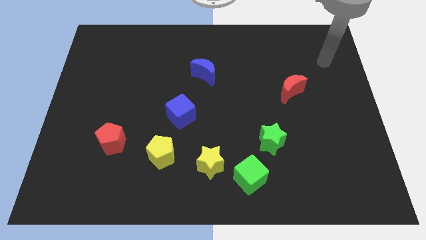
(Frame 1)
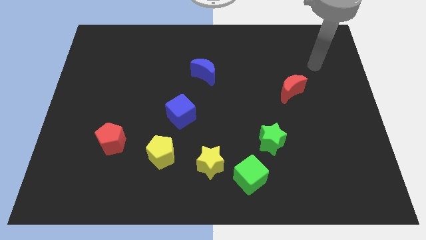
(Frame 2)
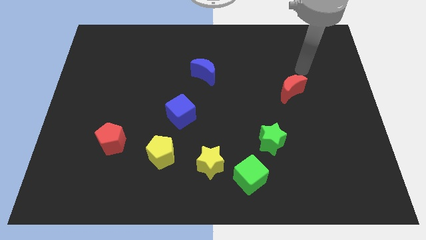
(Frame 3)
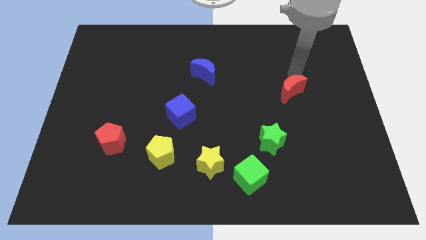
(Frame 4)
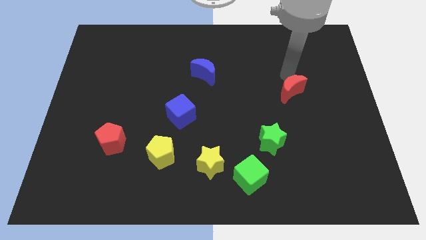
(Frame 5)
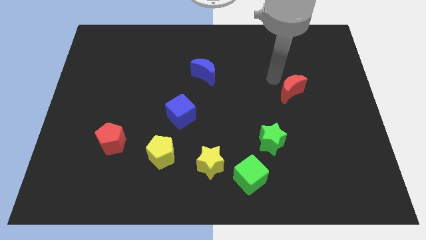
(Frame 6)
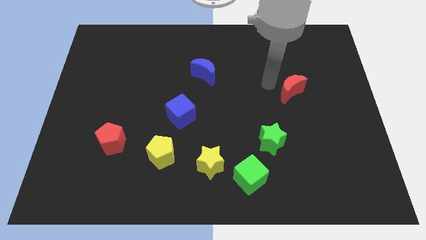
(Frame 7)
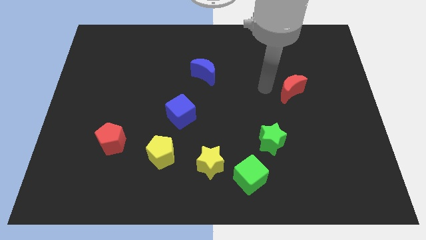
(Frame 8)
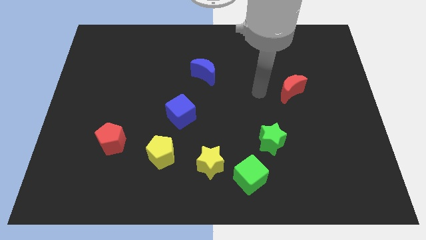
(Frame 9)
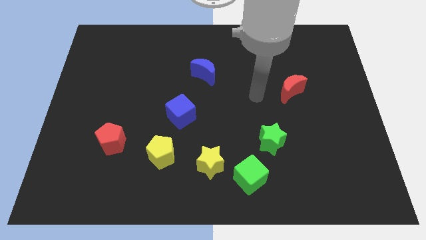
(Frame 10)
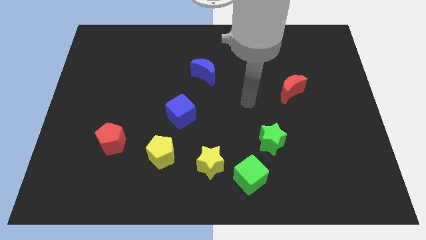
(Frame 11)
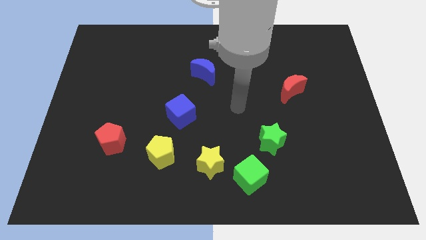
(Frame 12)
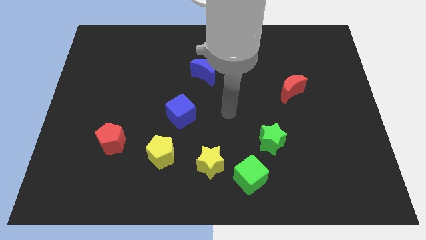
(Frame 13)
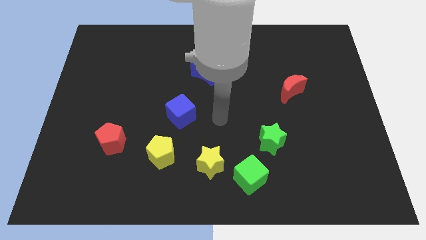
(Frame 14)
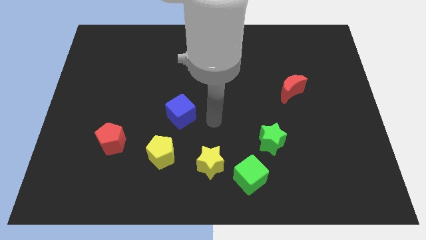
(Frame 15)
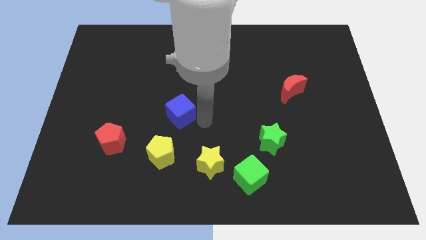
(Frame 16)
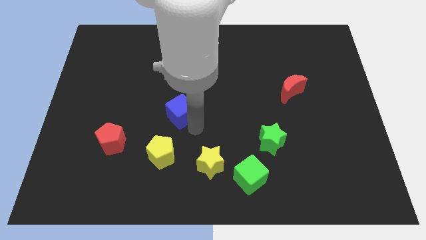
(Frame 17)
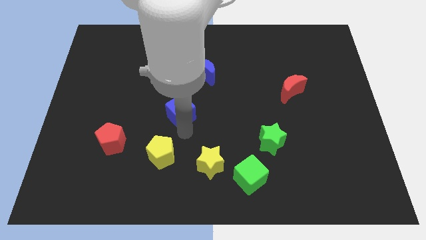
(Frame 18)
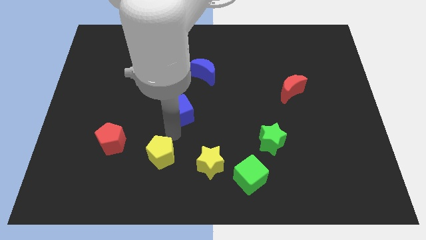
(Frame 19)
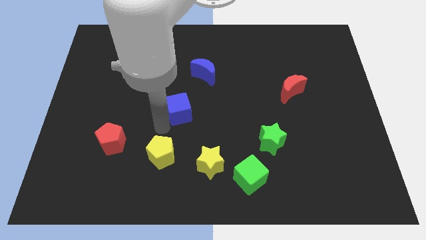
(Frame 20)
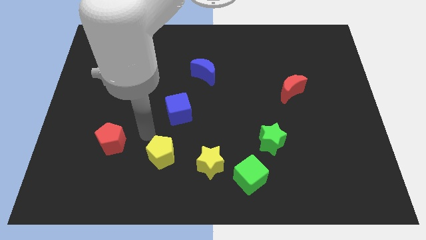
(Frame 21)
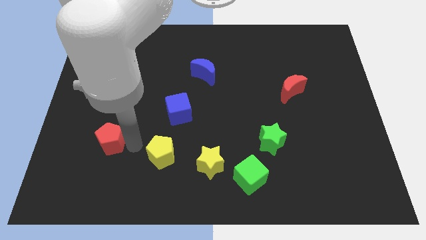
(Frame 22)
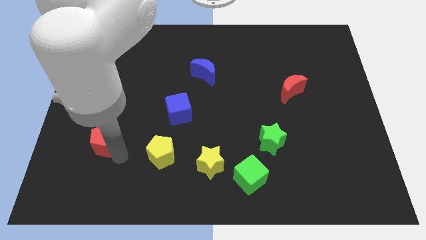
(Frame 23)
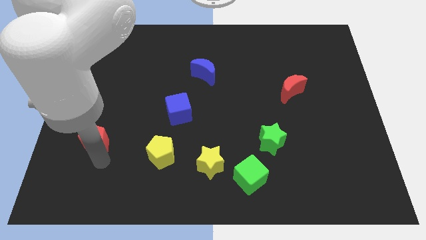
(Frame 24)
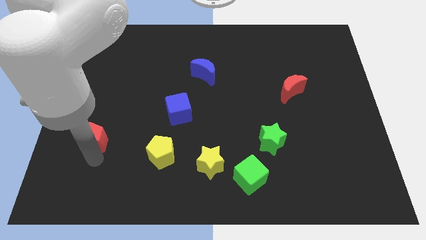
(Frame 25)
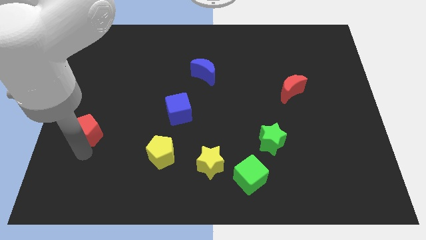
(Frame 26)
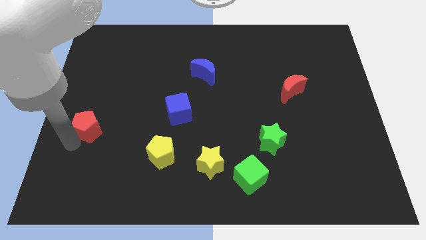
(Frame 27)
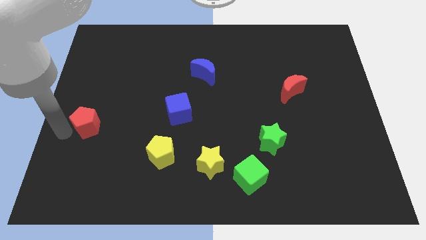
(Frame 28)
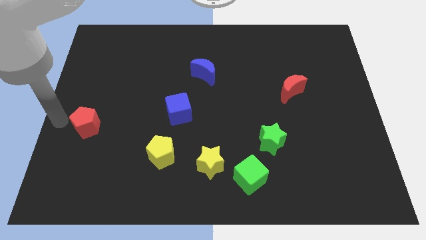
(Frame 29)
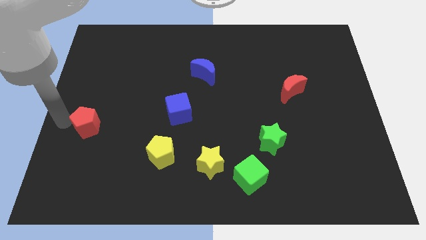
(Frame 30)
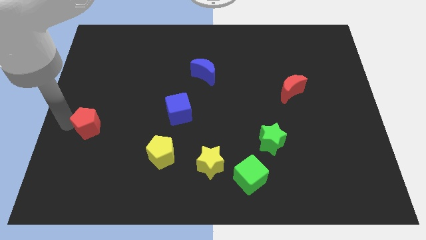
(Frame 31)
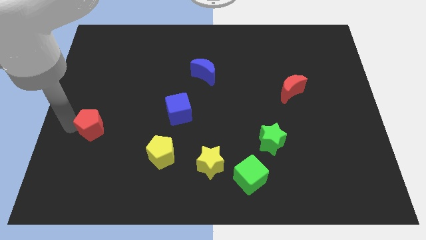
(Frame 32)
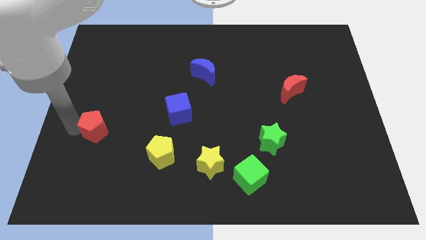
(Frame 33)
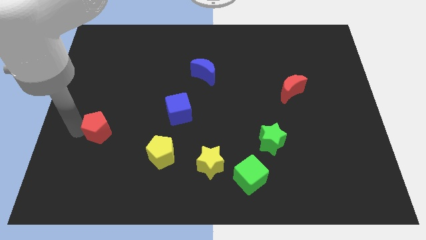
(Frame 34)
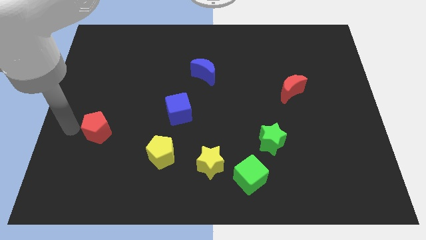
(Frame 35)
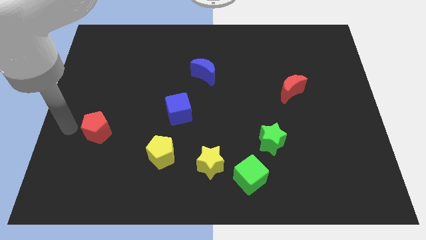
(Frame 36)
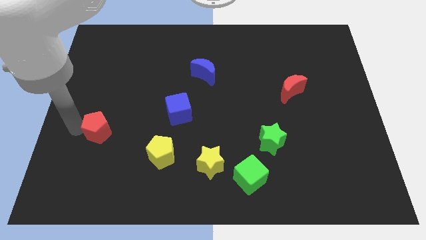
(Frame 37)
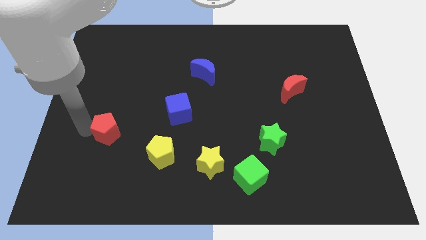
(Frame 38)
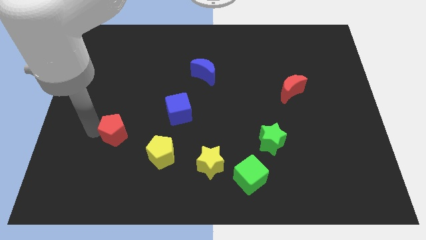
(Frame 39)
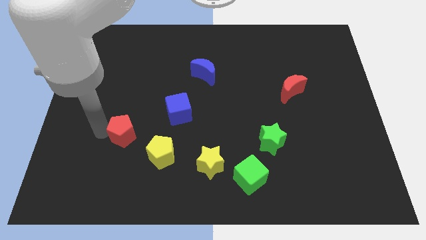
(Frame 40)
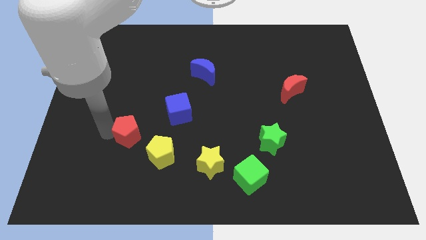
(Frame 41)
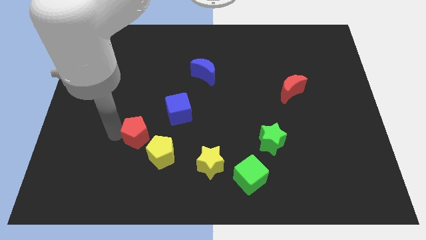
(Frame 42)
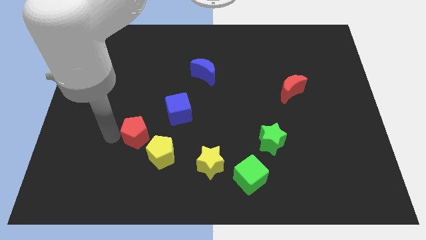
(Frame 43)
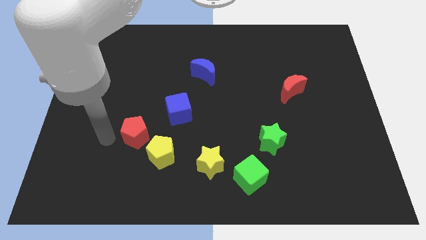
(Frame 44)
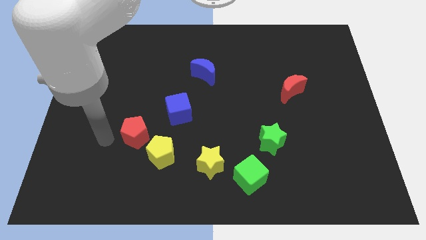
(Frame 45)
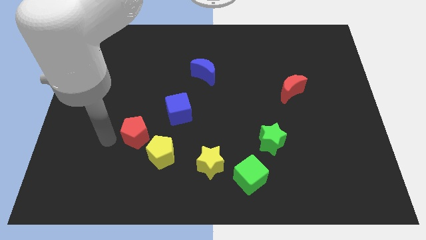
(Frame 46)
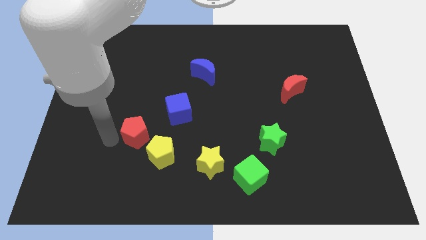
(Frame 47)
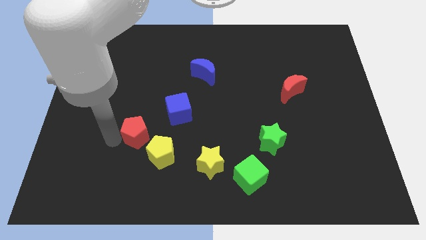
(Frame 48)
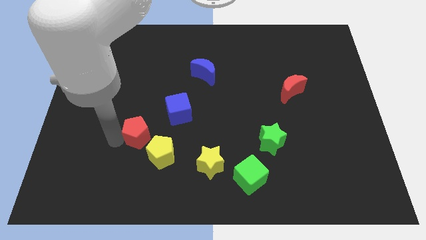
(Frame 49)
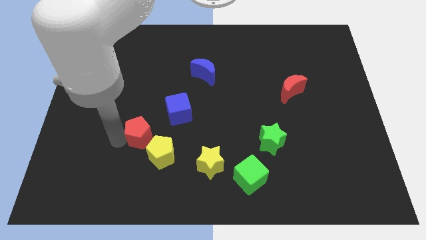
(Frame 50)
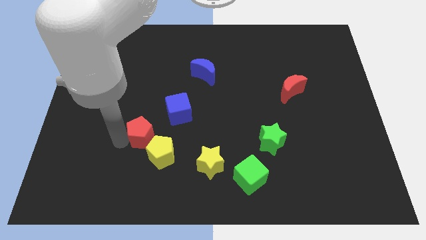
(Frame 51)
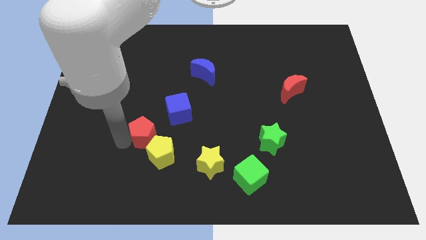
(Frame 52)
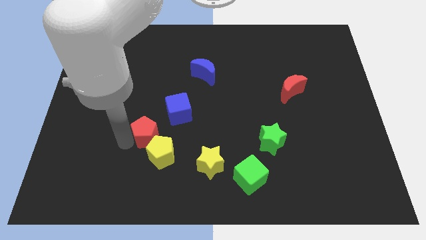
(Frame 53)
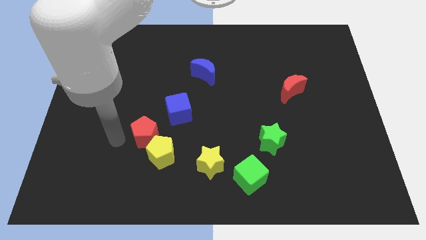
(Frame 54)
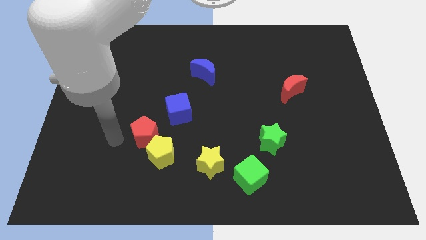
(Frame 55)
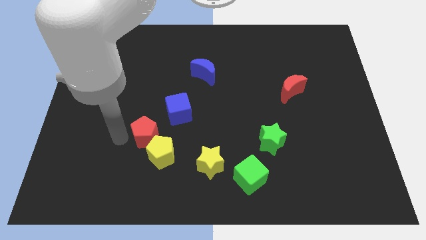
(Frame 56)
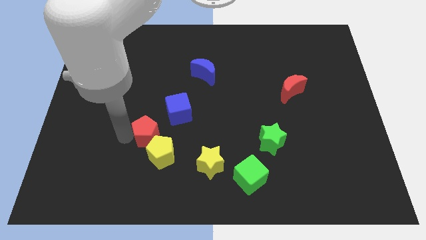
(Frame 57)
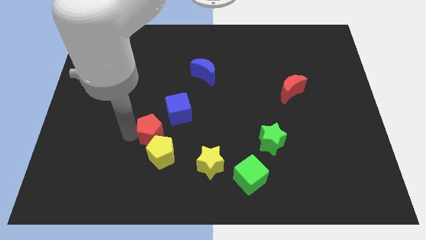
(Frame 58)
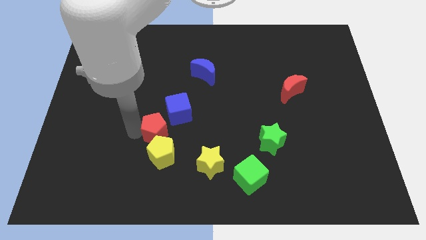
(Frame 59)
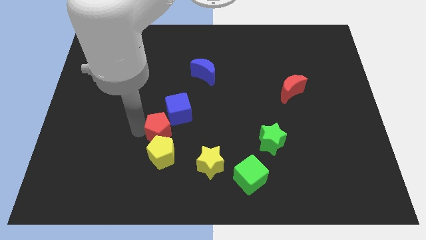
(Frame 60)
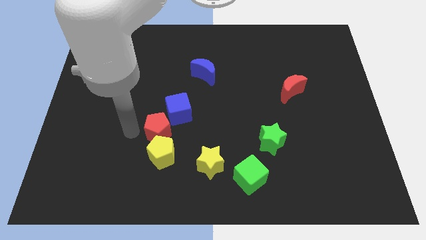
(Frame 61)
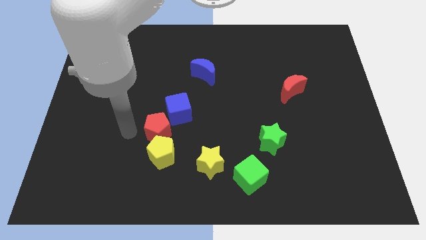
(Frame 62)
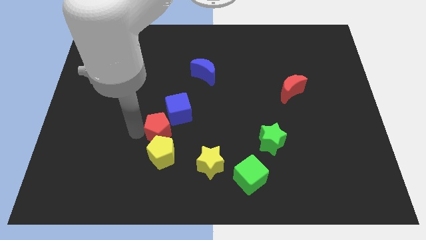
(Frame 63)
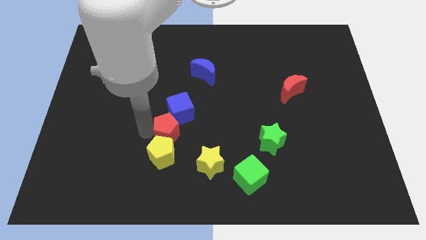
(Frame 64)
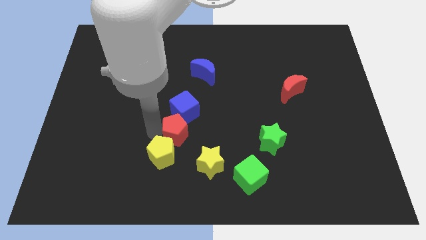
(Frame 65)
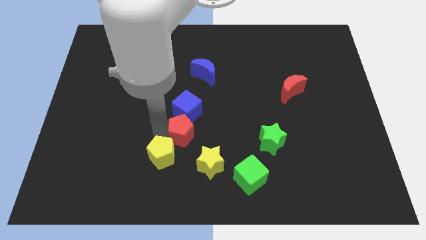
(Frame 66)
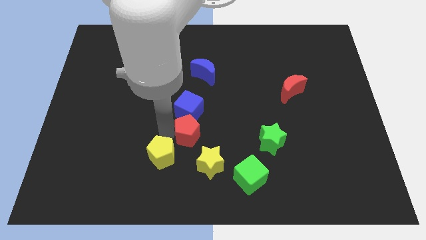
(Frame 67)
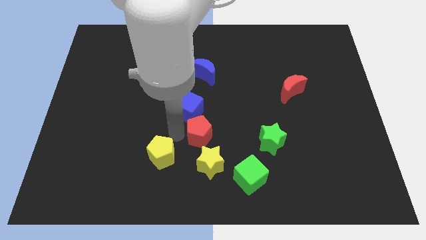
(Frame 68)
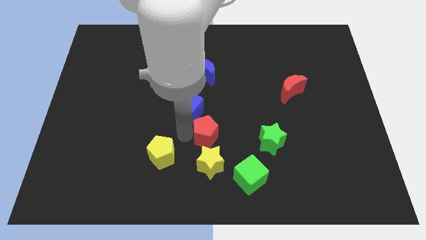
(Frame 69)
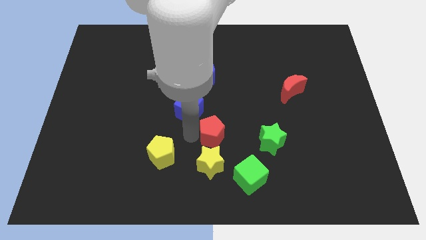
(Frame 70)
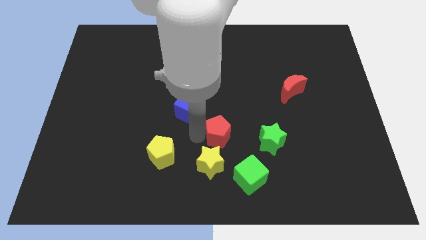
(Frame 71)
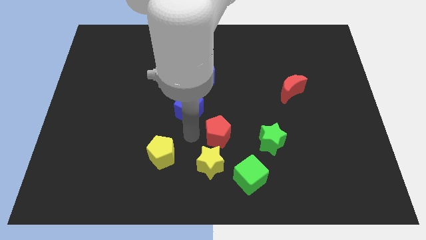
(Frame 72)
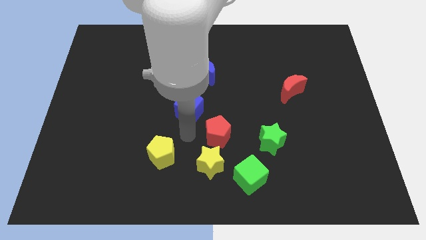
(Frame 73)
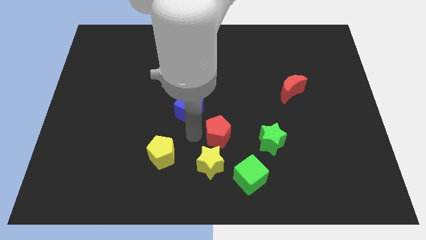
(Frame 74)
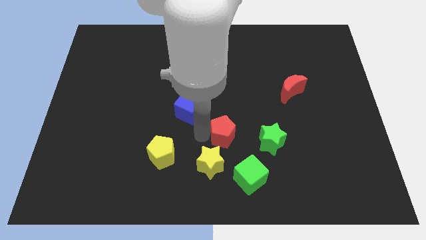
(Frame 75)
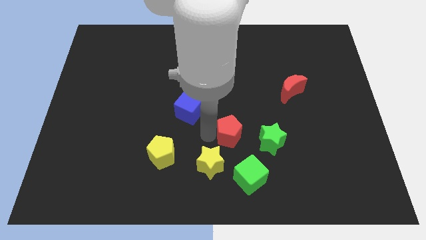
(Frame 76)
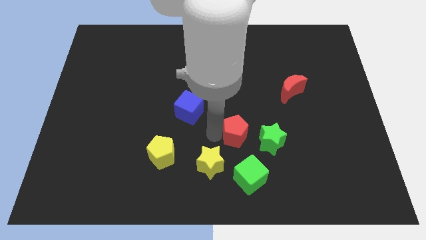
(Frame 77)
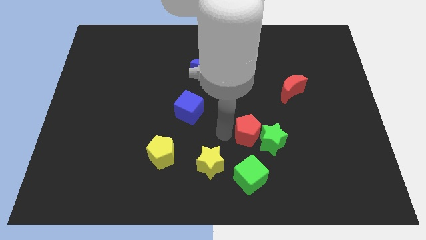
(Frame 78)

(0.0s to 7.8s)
put the red pentagon towards the green star
